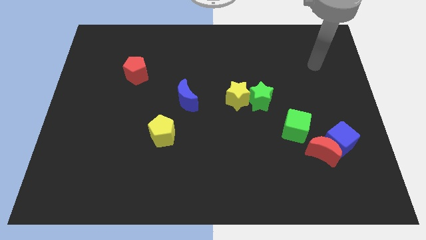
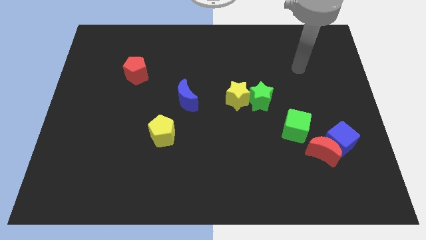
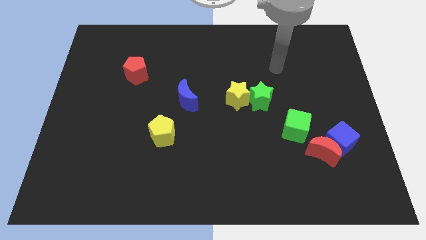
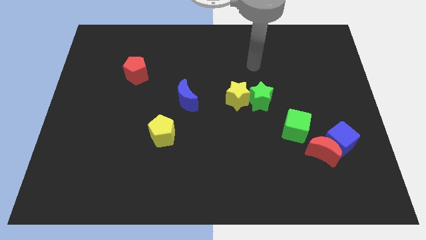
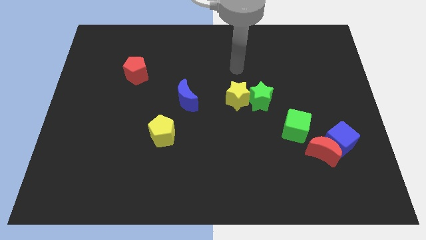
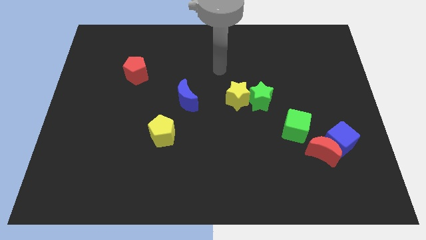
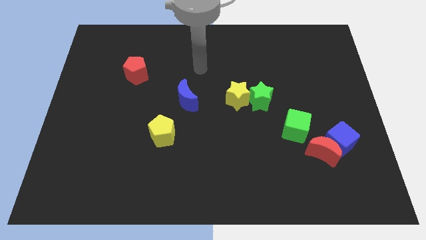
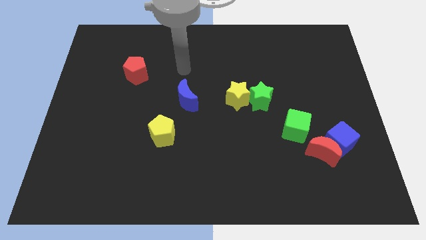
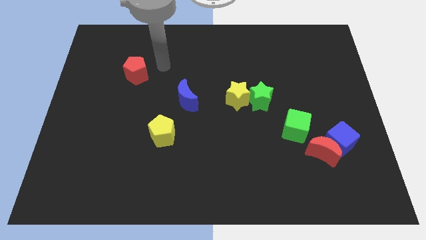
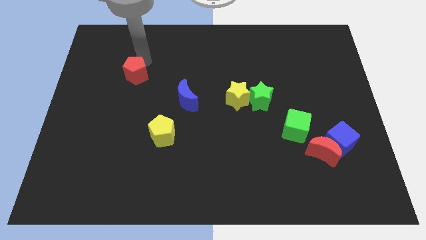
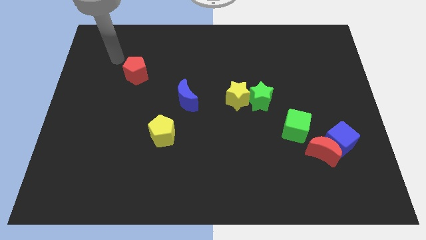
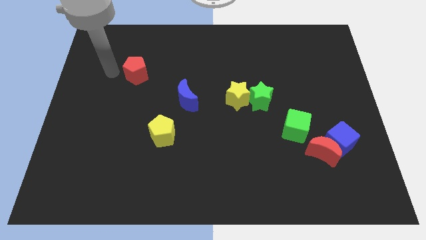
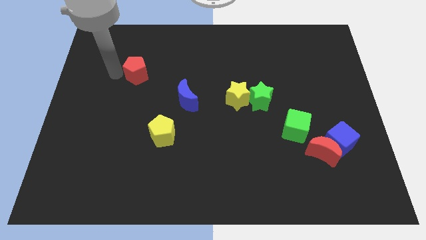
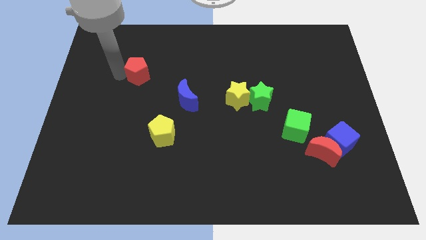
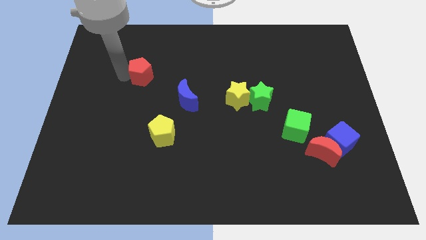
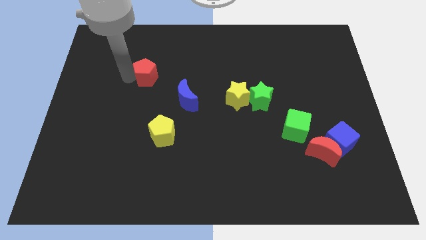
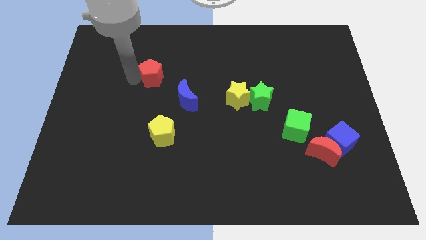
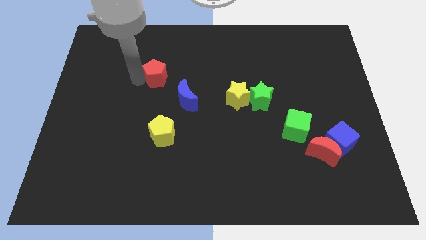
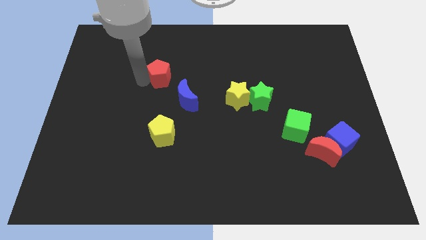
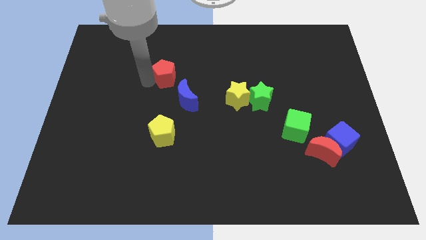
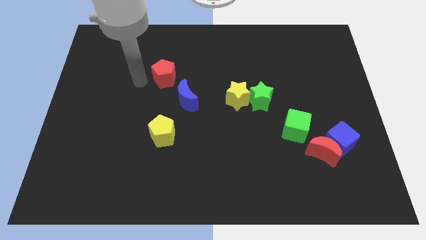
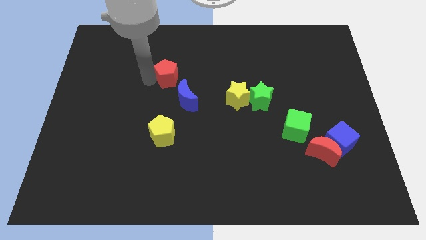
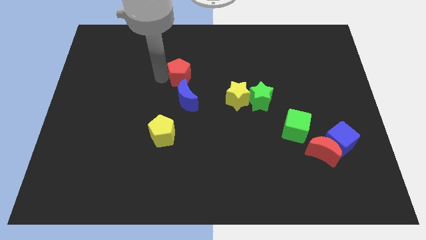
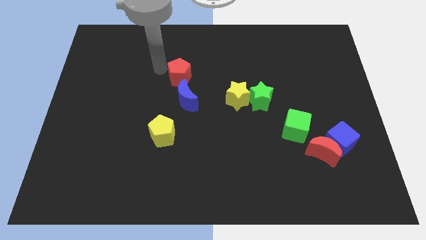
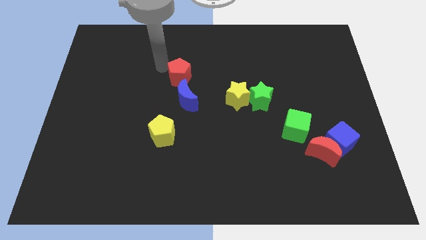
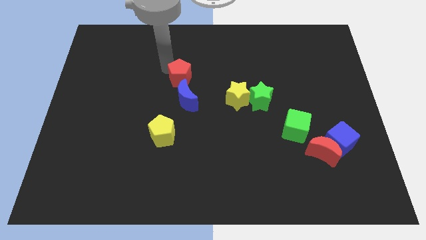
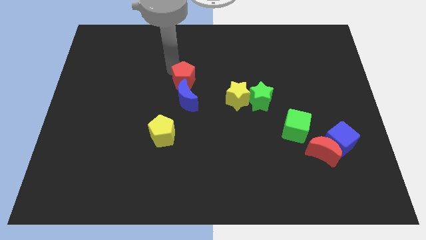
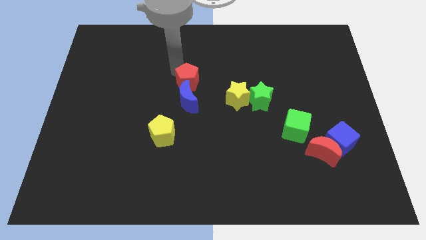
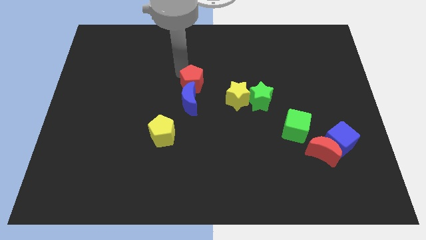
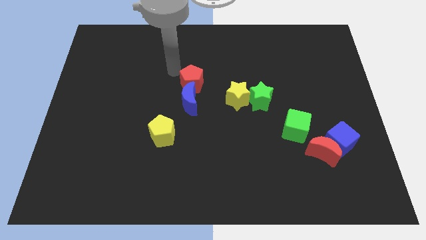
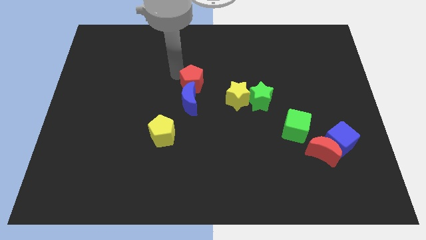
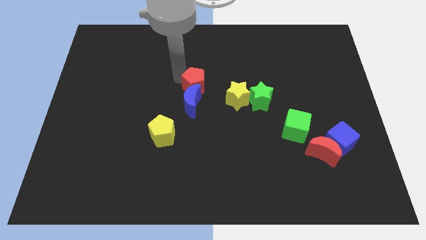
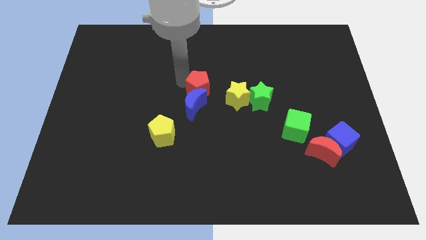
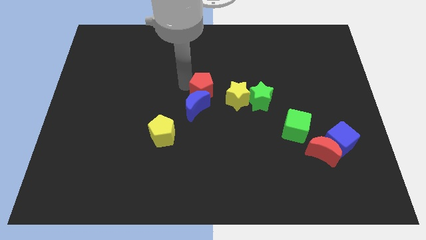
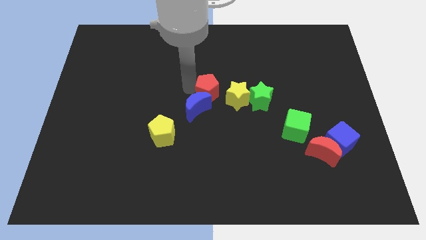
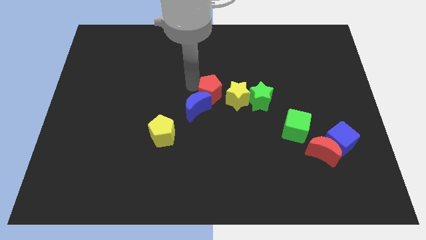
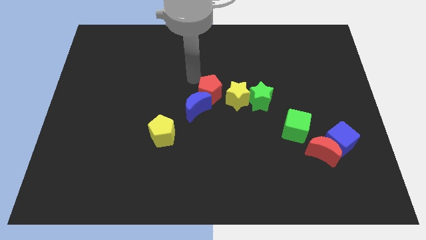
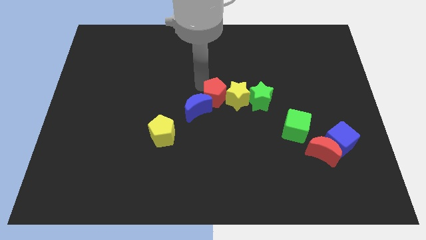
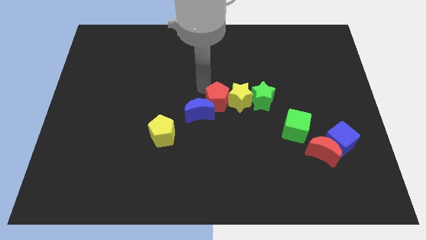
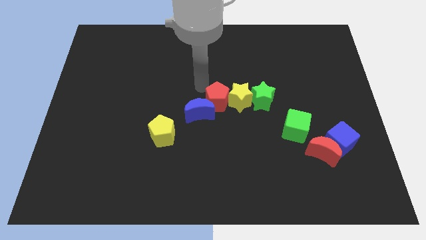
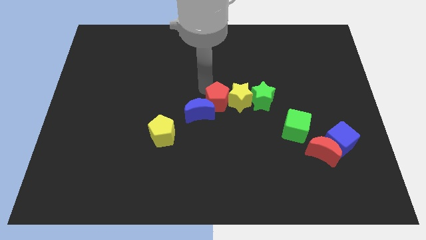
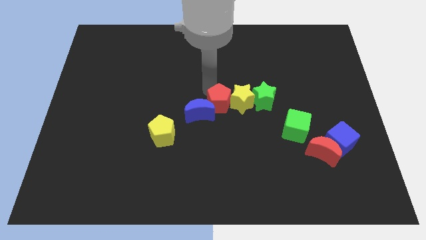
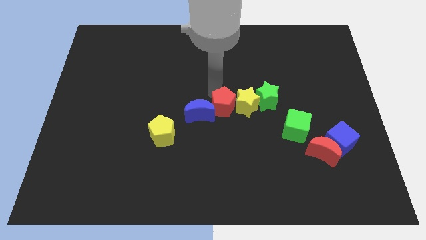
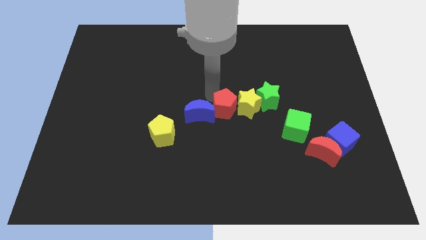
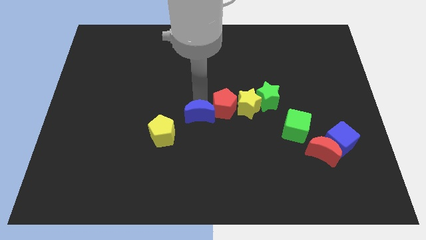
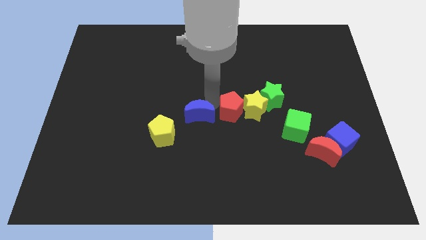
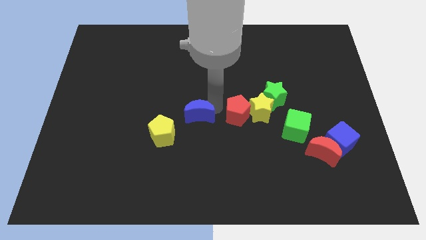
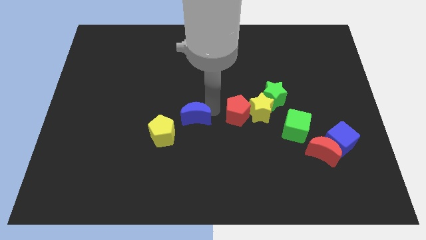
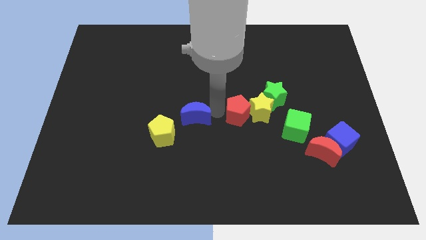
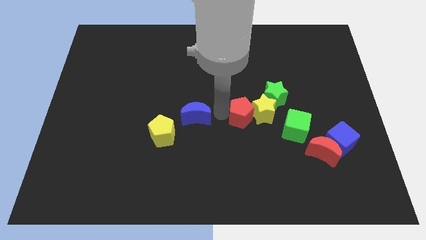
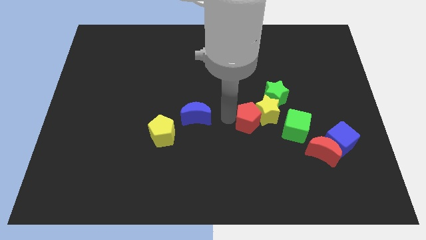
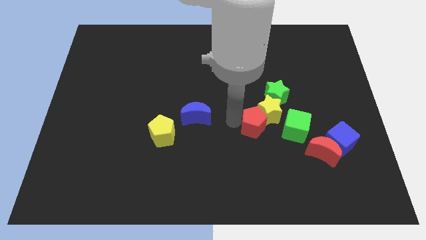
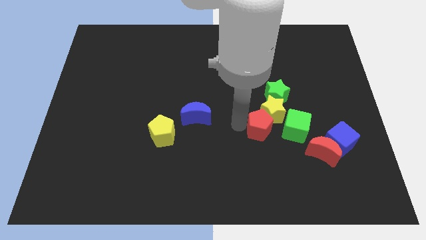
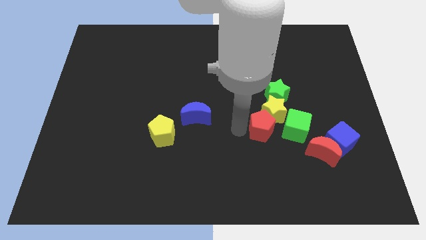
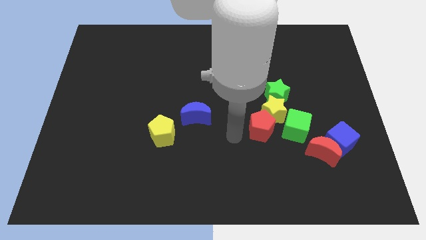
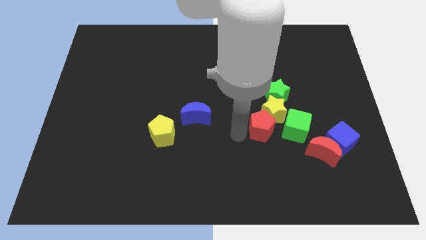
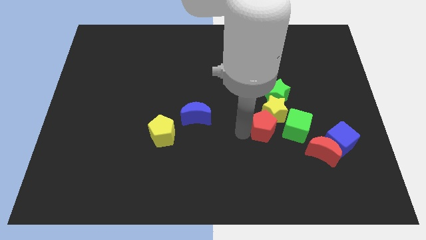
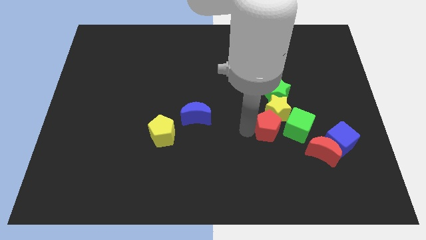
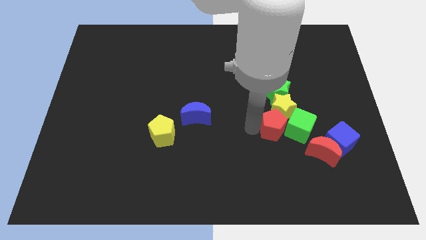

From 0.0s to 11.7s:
slide the red pentagon close to the green cube

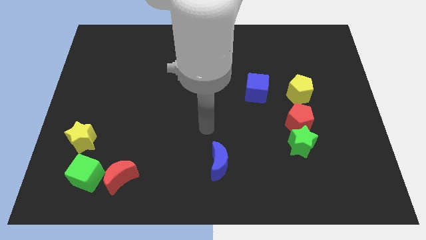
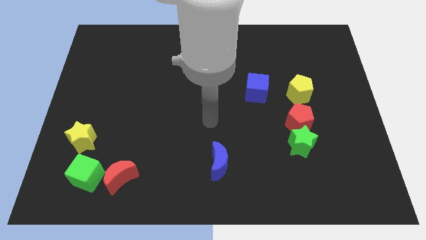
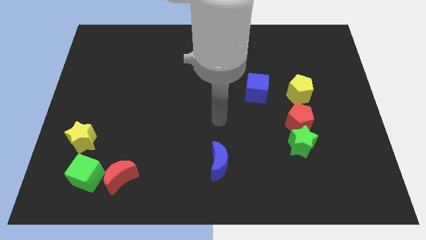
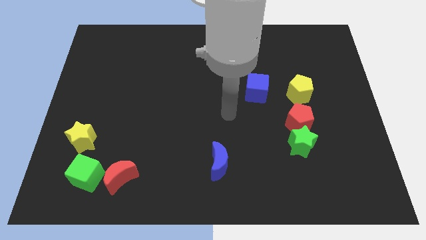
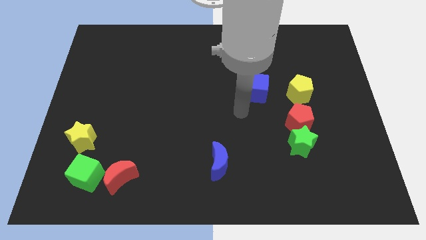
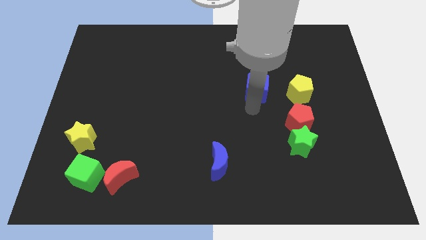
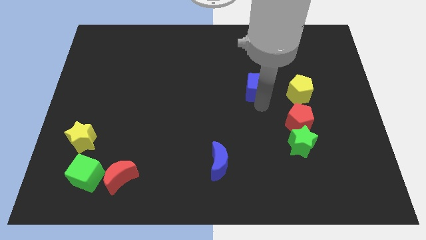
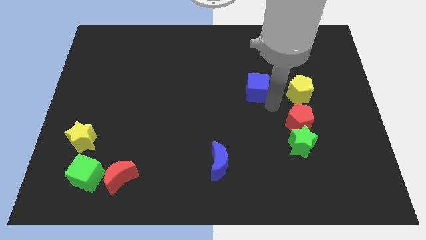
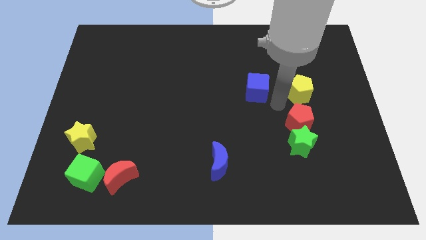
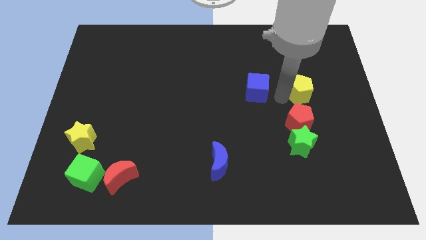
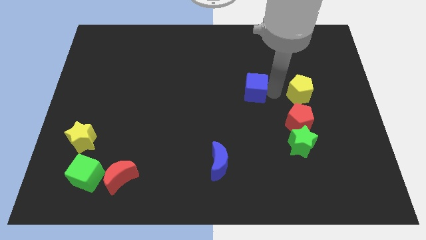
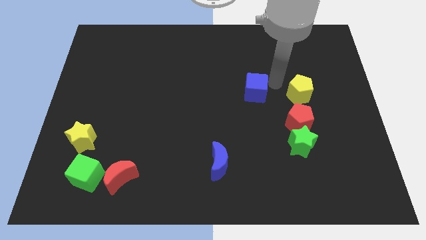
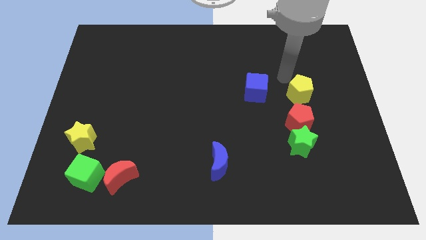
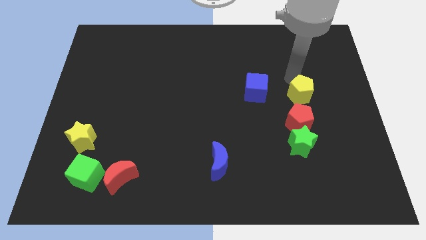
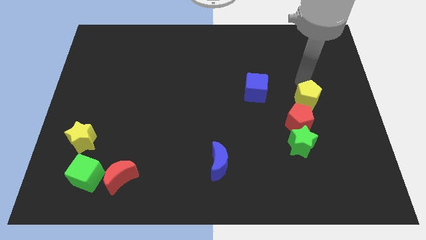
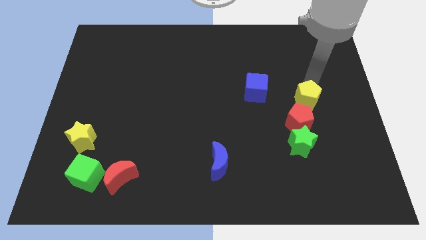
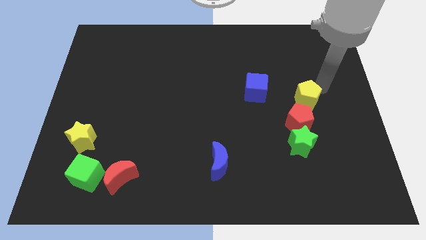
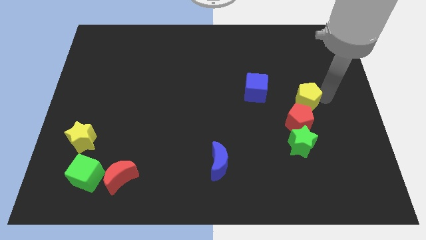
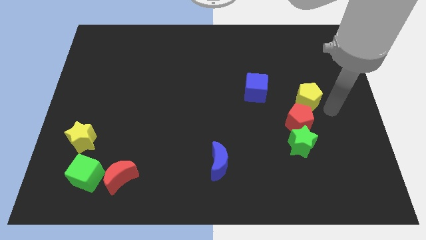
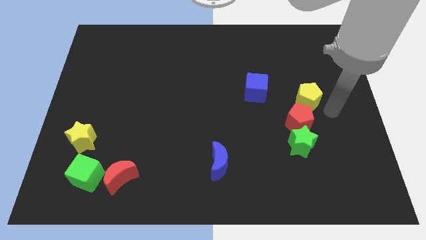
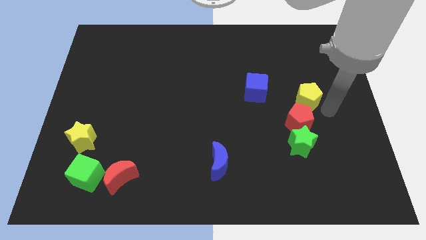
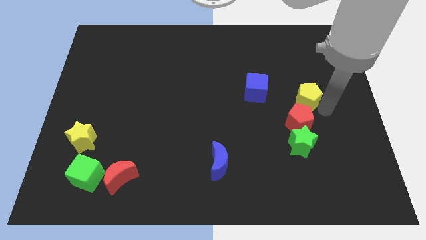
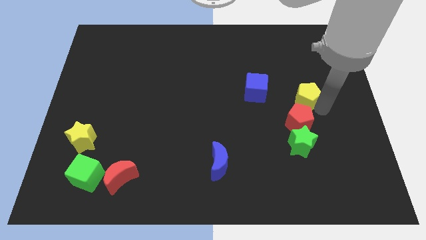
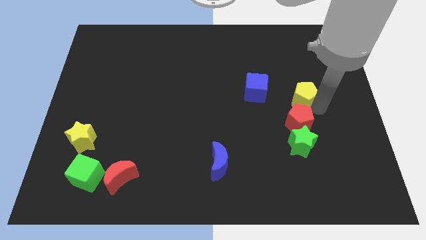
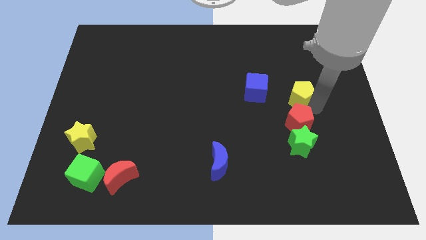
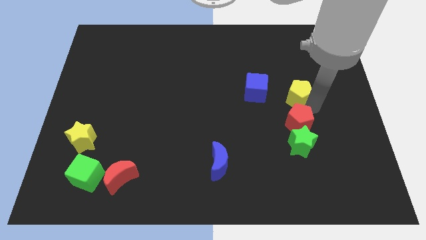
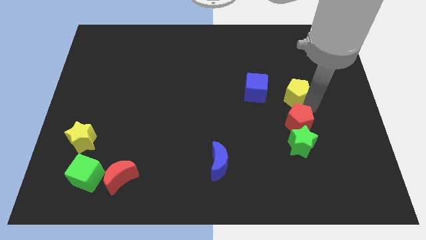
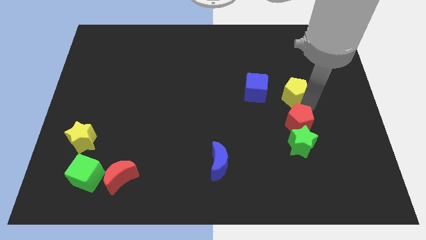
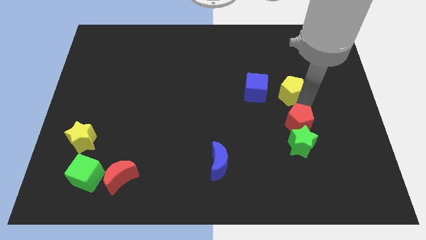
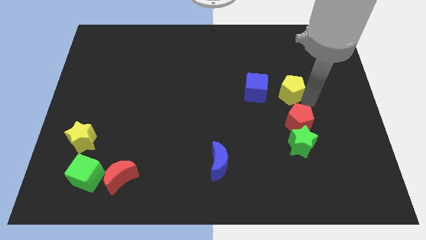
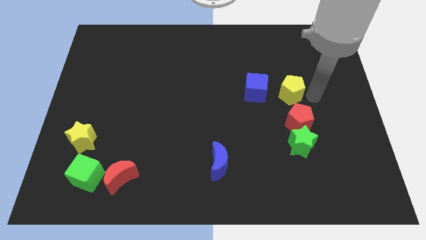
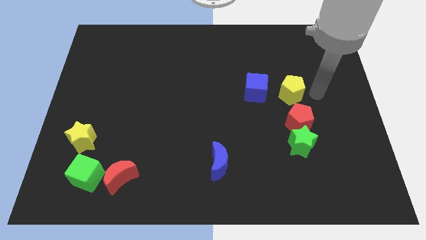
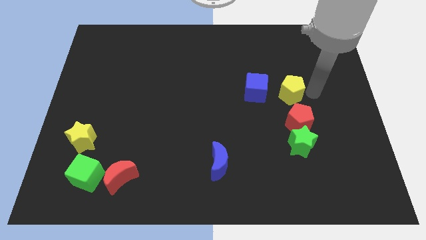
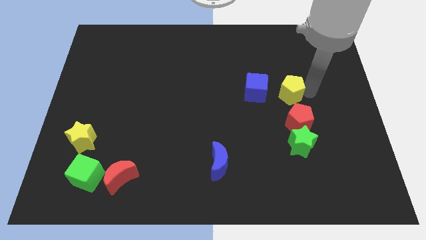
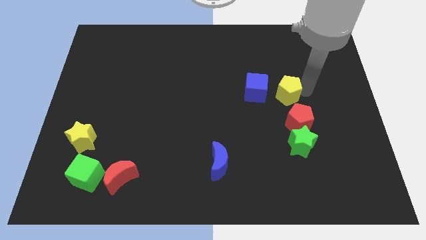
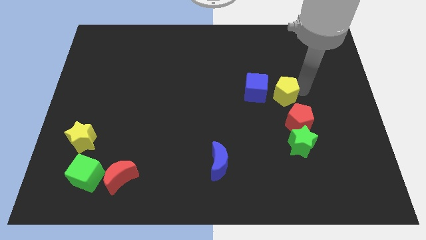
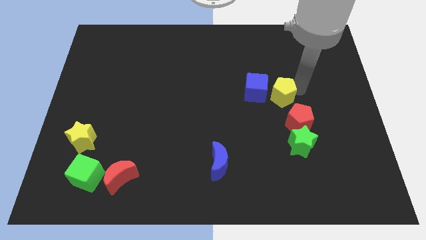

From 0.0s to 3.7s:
slide the yellow pentagon close to the blue cube
